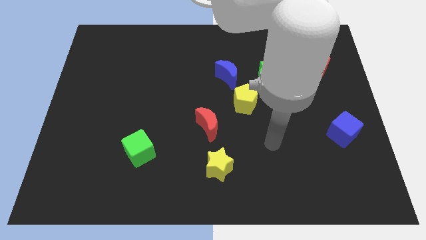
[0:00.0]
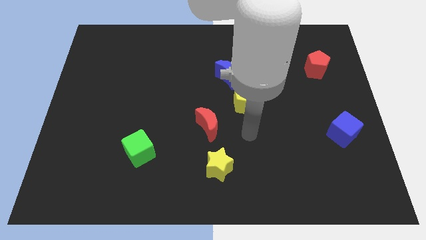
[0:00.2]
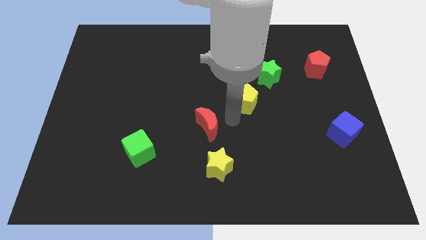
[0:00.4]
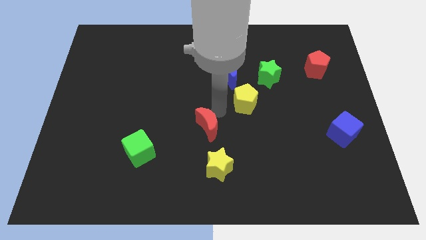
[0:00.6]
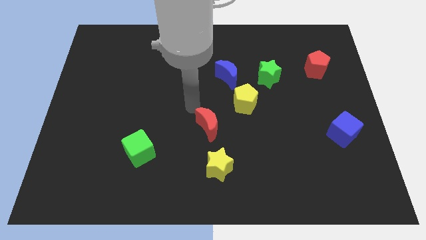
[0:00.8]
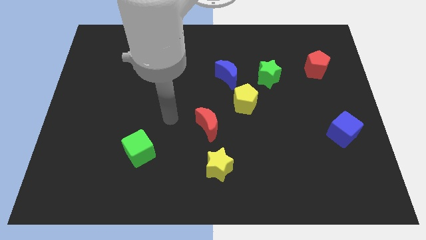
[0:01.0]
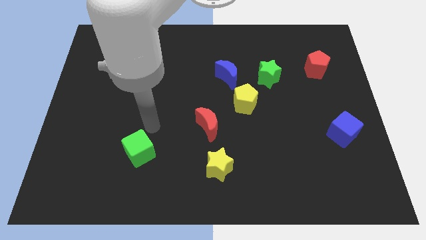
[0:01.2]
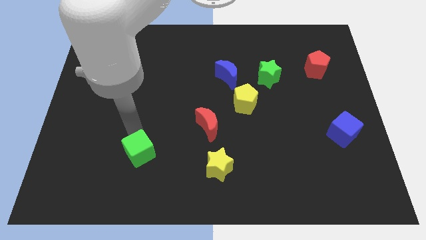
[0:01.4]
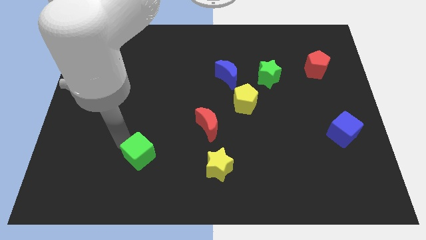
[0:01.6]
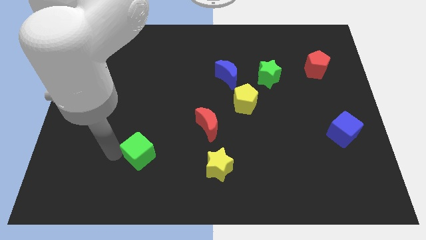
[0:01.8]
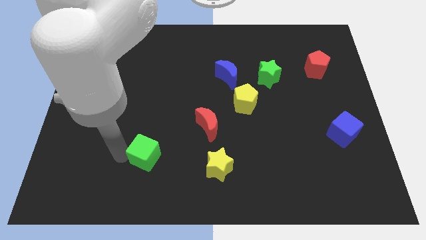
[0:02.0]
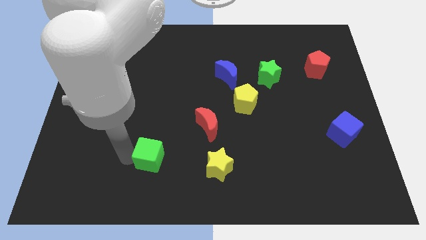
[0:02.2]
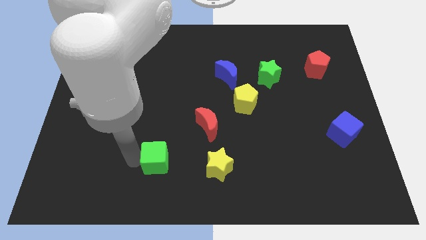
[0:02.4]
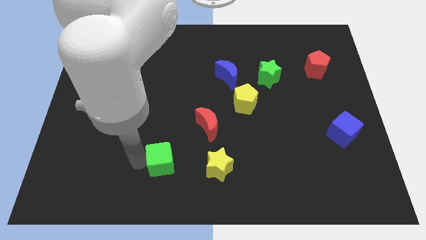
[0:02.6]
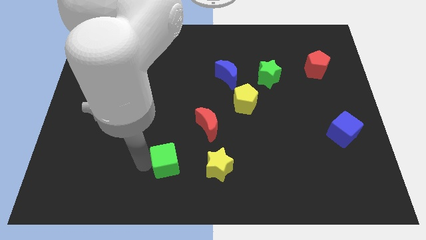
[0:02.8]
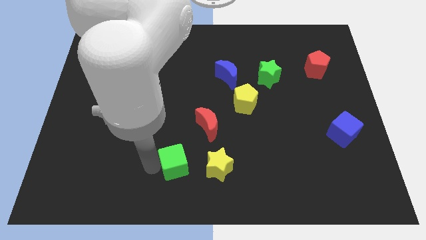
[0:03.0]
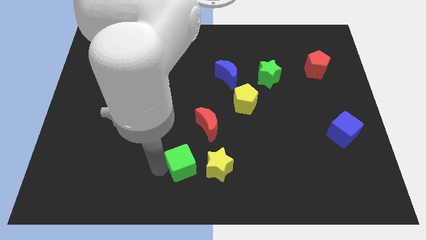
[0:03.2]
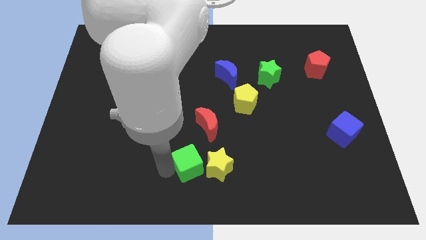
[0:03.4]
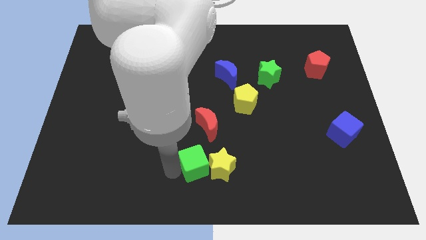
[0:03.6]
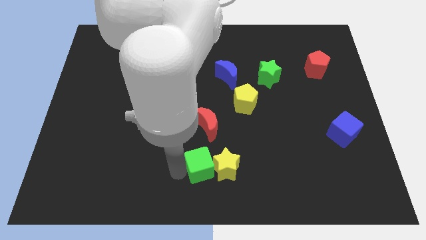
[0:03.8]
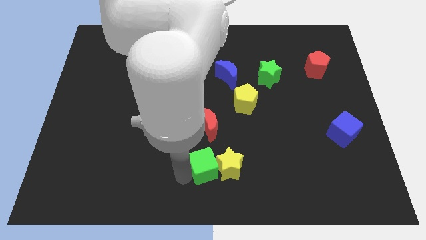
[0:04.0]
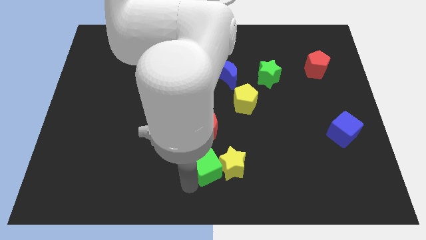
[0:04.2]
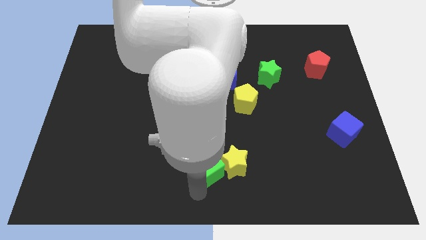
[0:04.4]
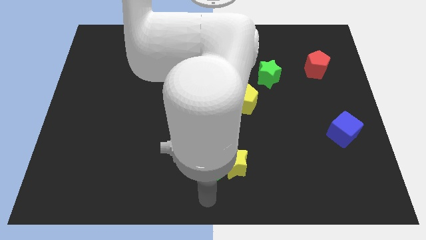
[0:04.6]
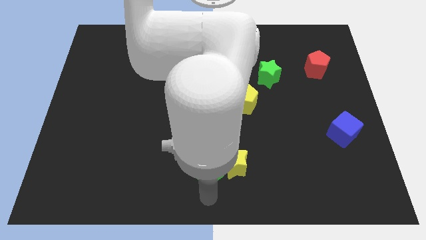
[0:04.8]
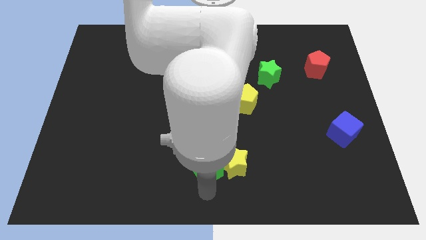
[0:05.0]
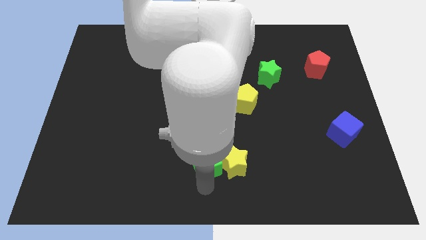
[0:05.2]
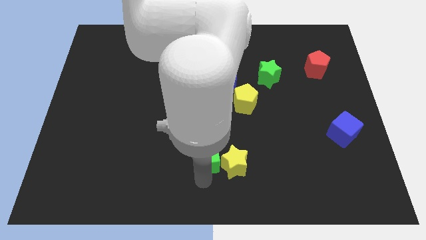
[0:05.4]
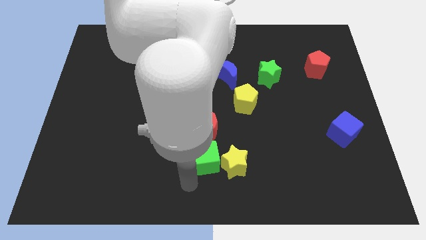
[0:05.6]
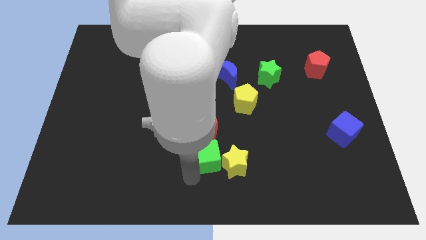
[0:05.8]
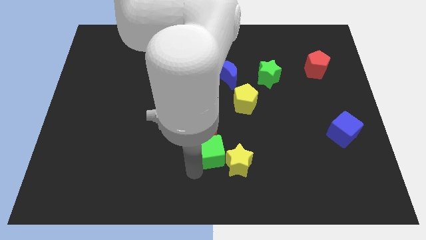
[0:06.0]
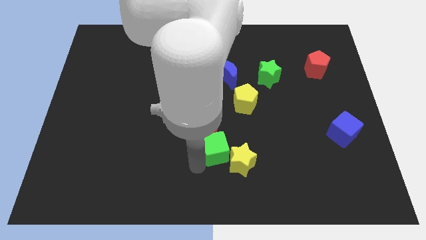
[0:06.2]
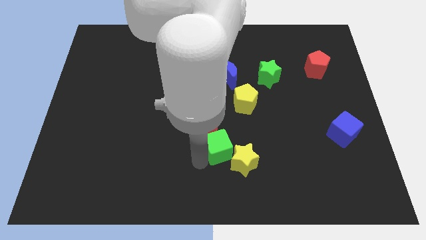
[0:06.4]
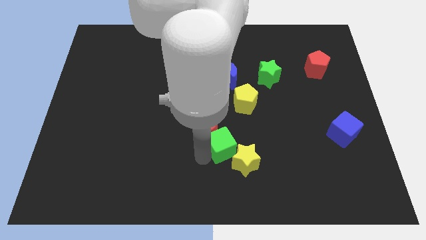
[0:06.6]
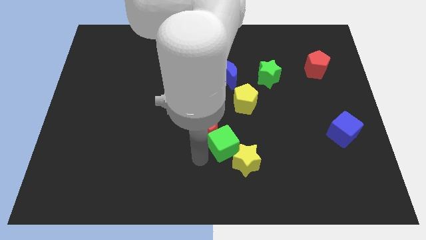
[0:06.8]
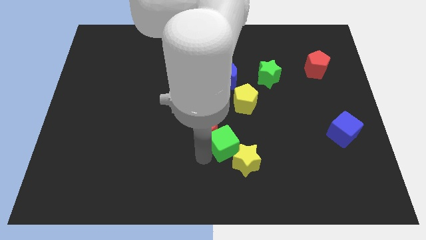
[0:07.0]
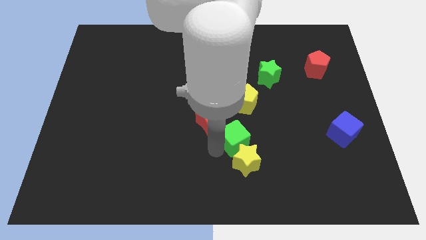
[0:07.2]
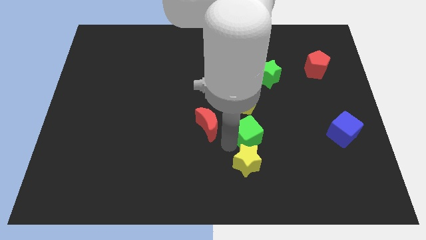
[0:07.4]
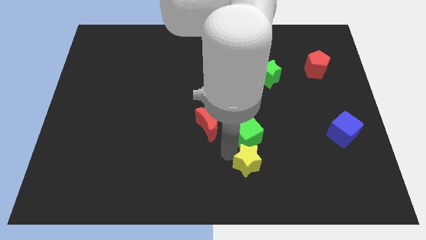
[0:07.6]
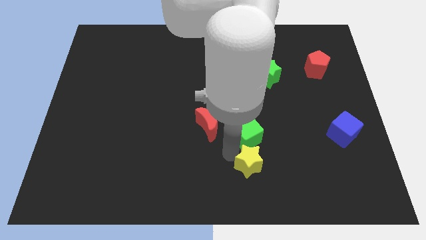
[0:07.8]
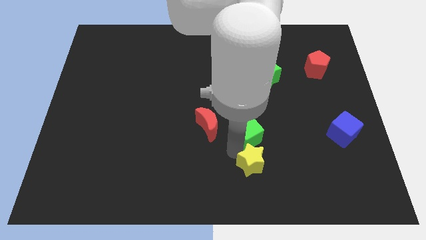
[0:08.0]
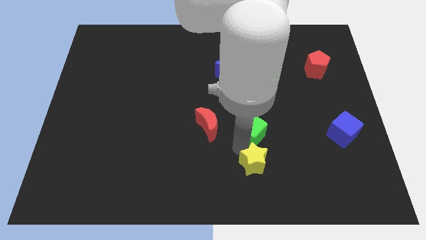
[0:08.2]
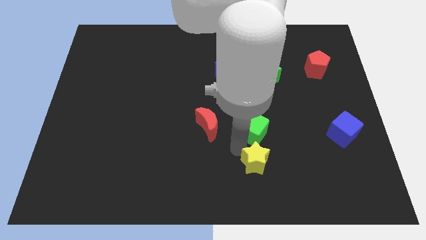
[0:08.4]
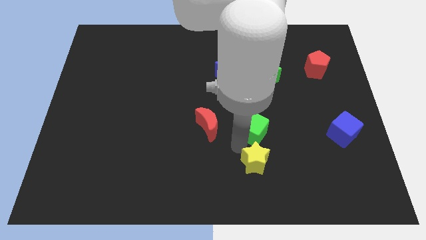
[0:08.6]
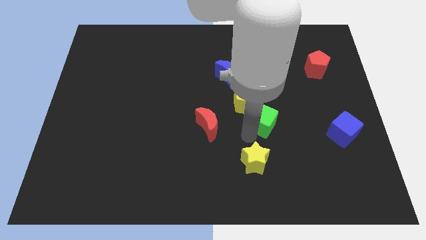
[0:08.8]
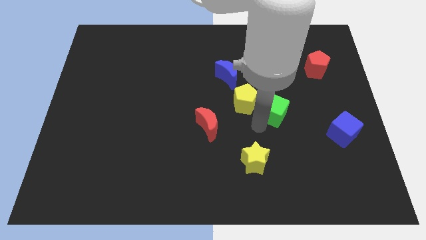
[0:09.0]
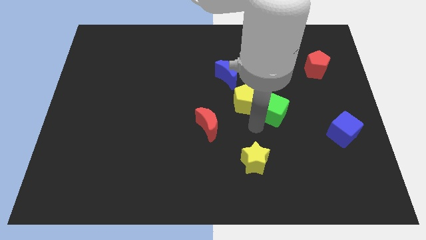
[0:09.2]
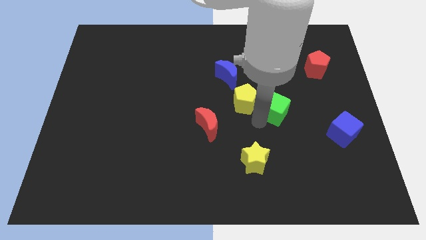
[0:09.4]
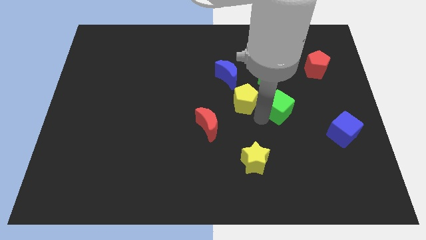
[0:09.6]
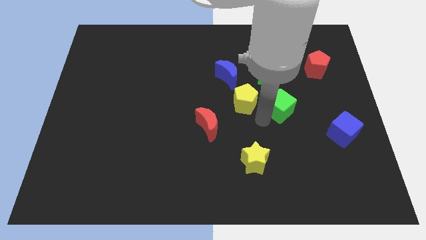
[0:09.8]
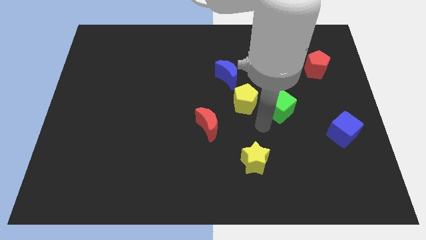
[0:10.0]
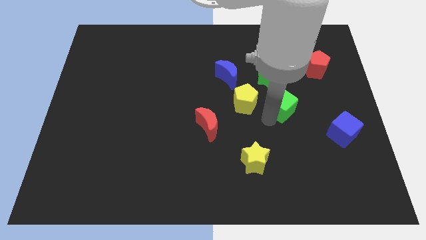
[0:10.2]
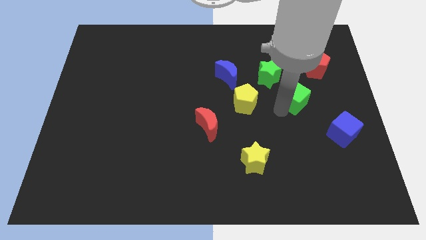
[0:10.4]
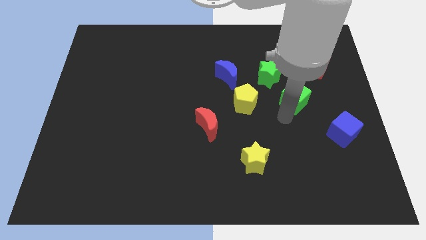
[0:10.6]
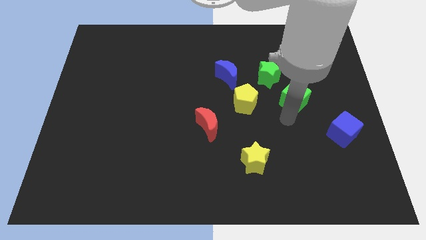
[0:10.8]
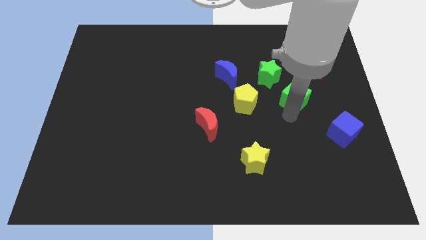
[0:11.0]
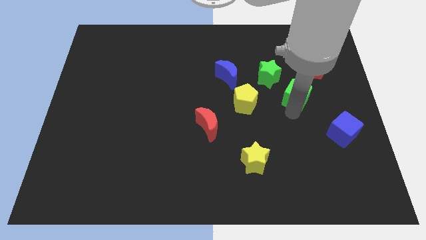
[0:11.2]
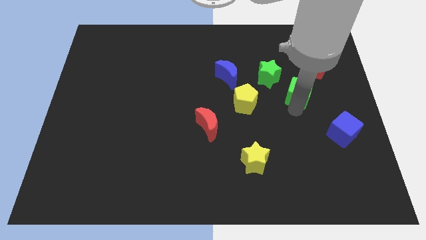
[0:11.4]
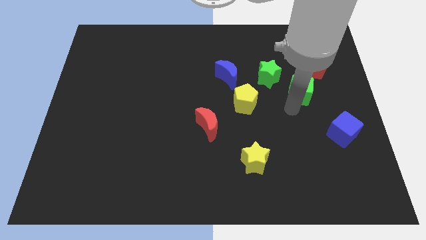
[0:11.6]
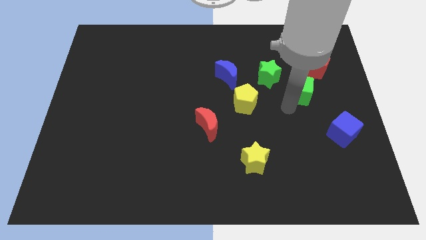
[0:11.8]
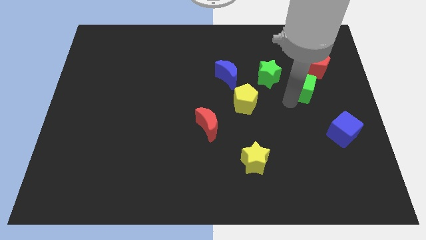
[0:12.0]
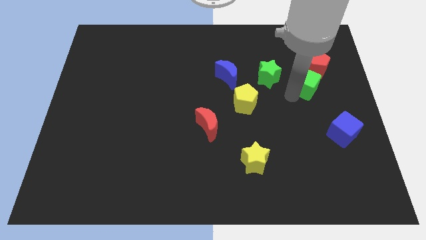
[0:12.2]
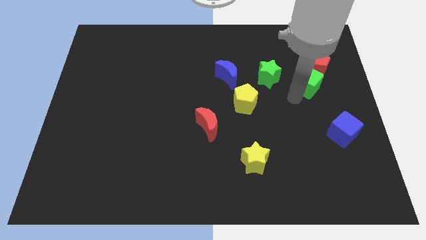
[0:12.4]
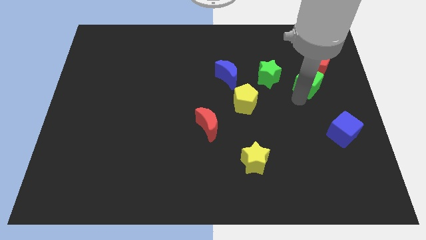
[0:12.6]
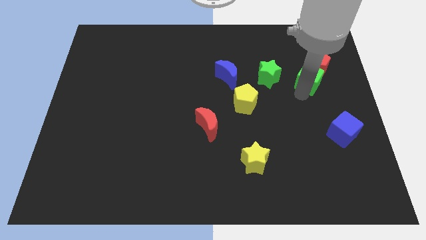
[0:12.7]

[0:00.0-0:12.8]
put the green cube to the red pentagon

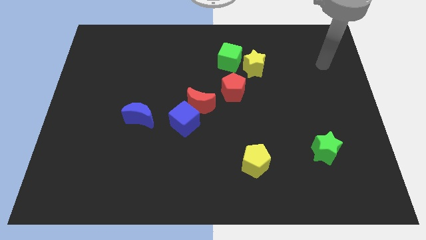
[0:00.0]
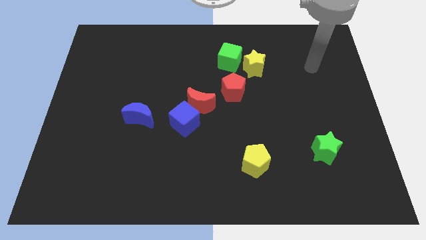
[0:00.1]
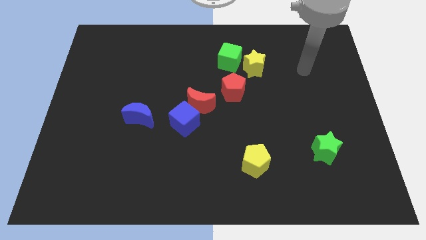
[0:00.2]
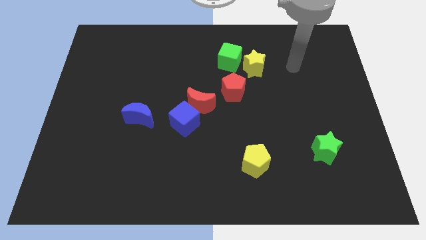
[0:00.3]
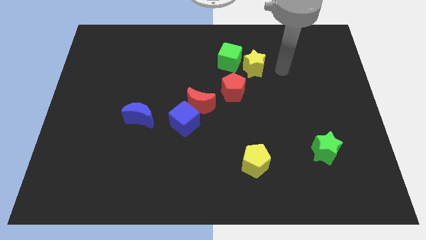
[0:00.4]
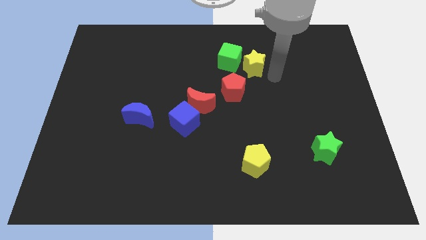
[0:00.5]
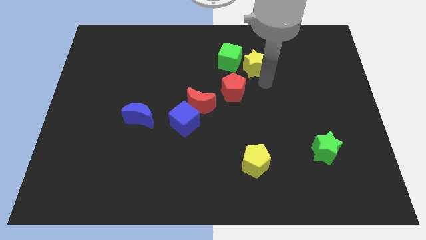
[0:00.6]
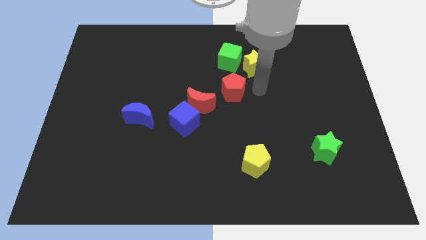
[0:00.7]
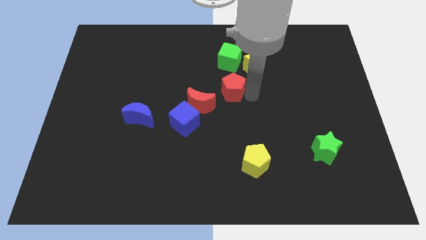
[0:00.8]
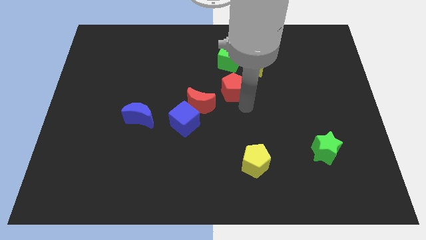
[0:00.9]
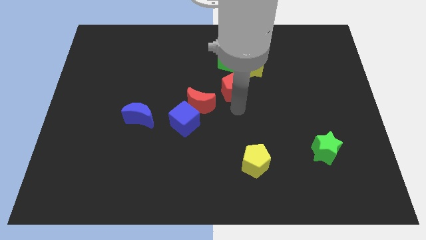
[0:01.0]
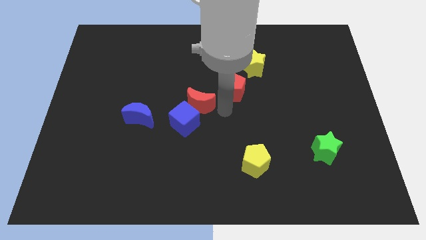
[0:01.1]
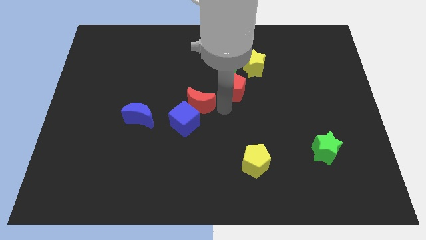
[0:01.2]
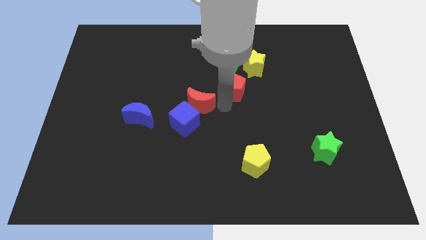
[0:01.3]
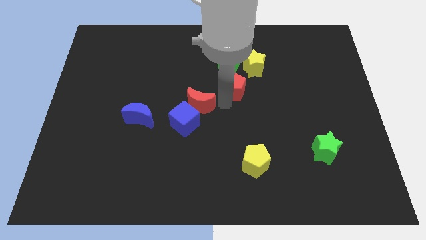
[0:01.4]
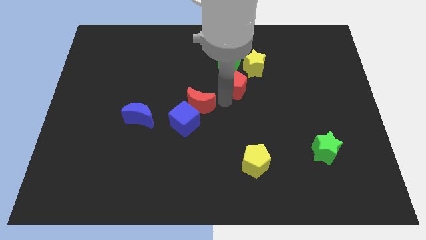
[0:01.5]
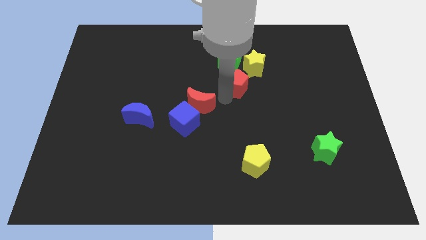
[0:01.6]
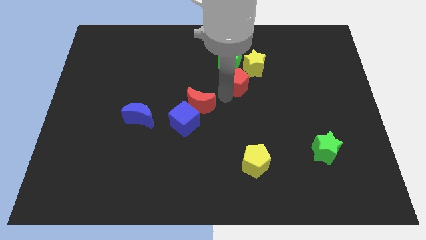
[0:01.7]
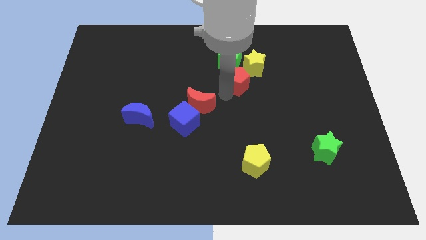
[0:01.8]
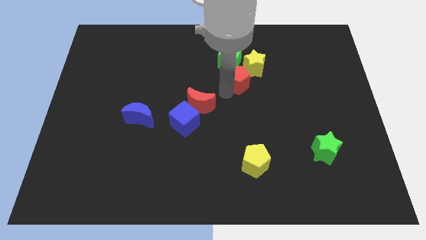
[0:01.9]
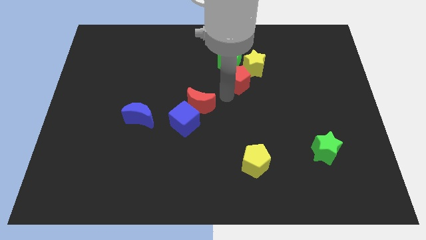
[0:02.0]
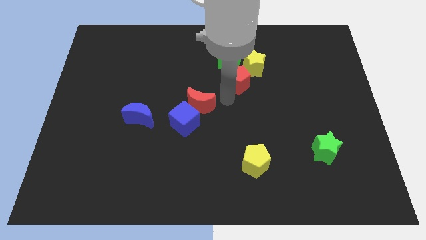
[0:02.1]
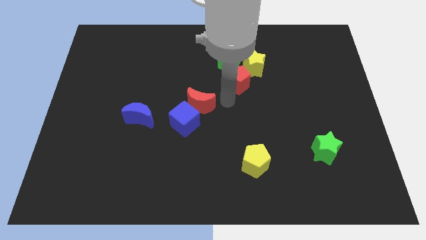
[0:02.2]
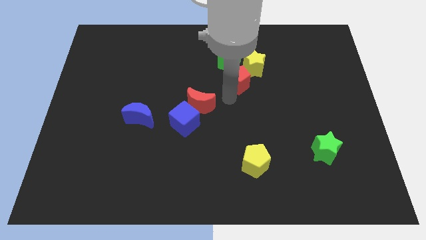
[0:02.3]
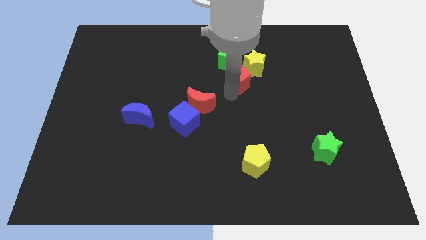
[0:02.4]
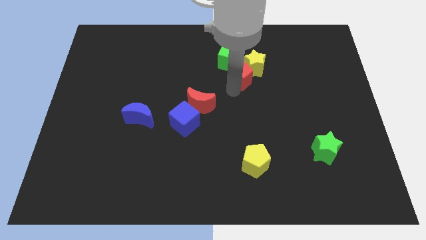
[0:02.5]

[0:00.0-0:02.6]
push the red pentagon next to the yellow star
